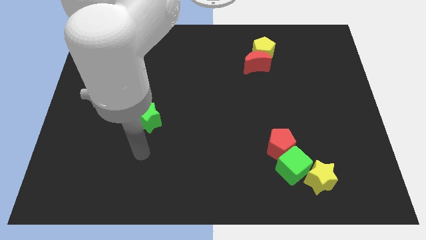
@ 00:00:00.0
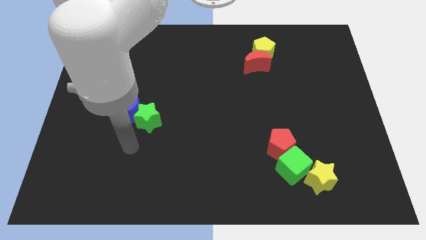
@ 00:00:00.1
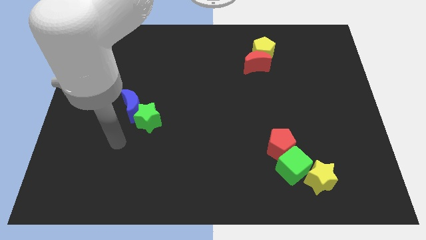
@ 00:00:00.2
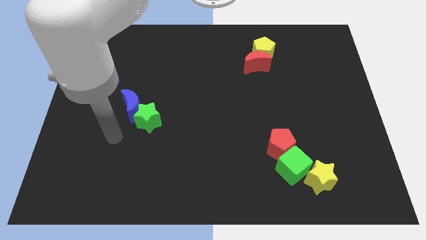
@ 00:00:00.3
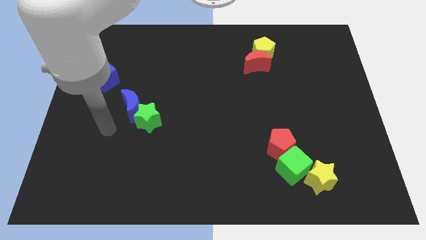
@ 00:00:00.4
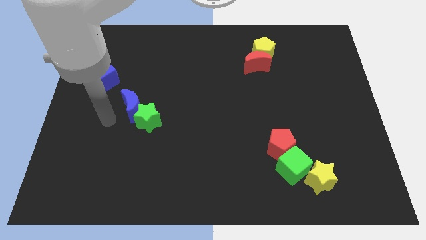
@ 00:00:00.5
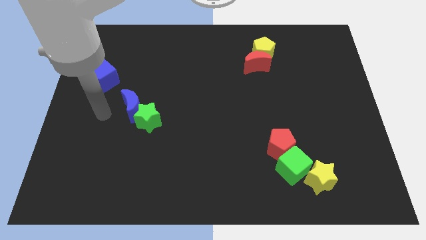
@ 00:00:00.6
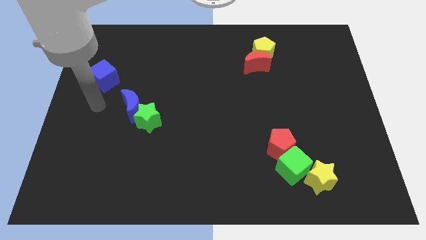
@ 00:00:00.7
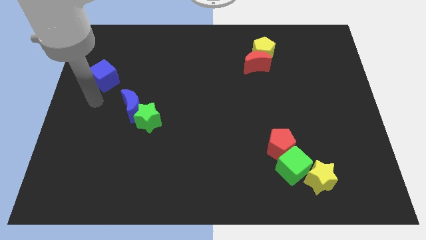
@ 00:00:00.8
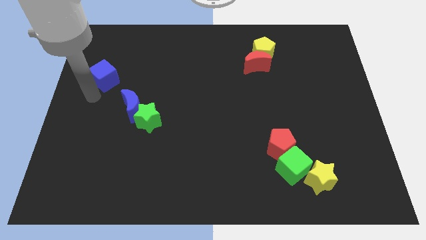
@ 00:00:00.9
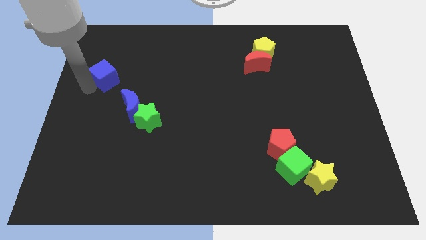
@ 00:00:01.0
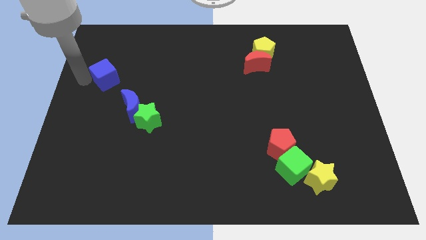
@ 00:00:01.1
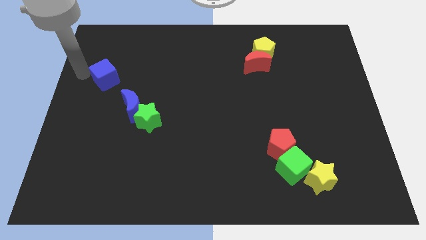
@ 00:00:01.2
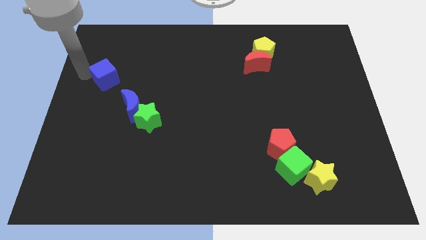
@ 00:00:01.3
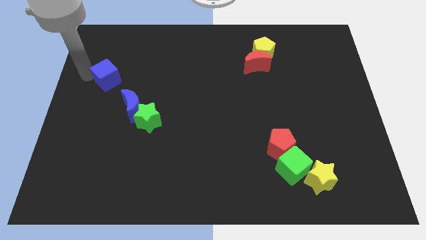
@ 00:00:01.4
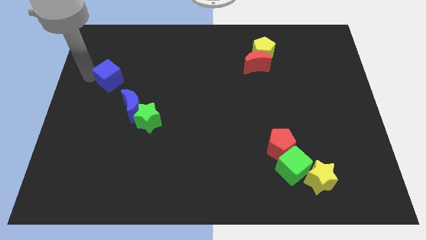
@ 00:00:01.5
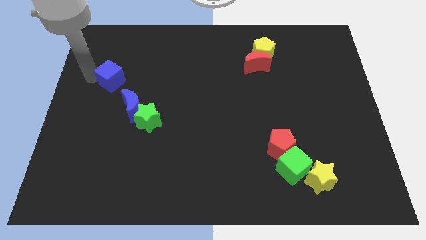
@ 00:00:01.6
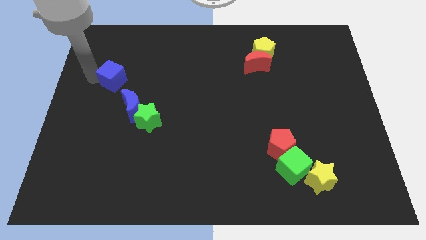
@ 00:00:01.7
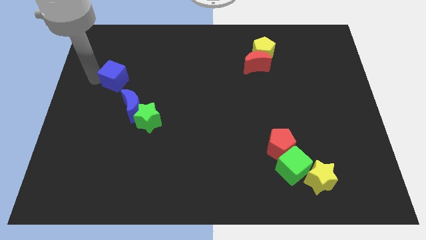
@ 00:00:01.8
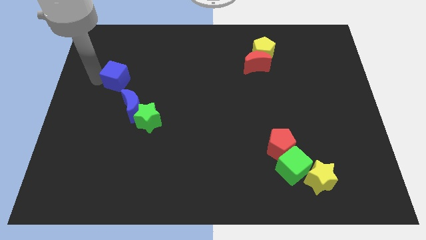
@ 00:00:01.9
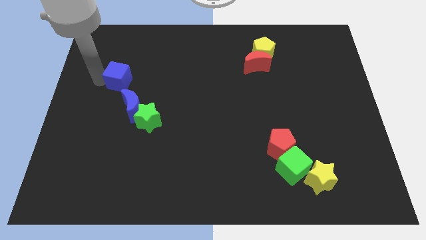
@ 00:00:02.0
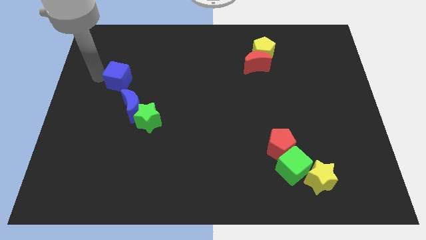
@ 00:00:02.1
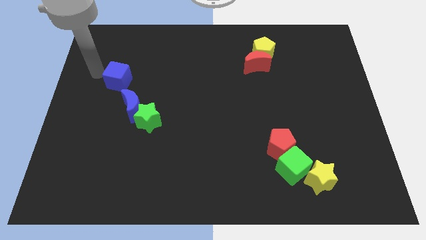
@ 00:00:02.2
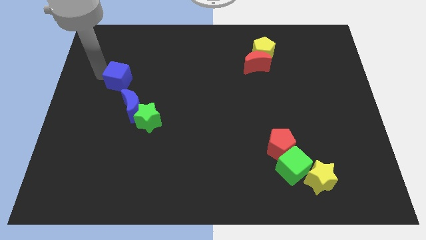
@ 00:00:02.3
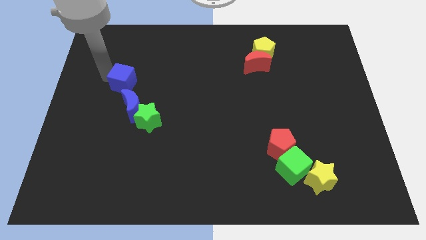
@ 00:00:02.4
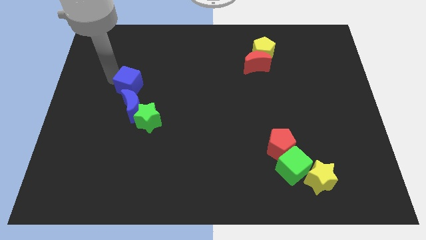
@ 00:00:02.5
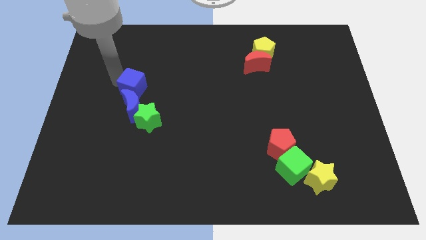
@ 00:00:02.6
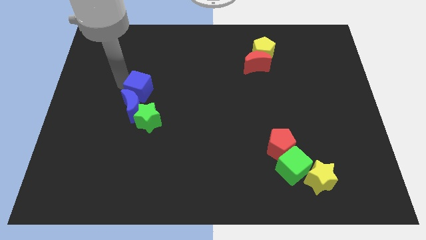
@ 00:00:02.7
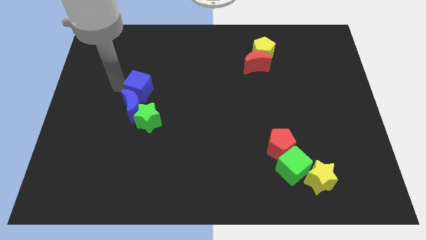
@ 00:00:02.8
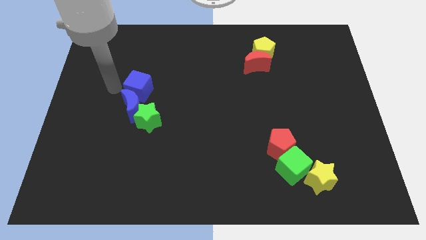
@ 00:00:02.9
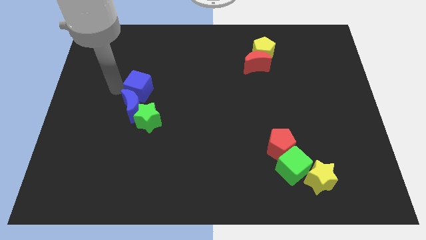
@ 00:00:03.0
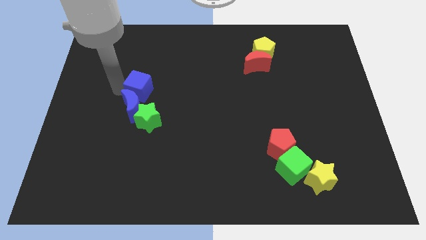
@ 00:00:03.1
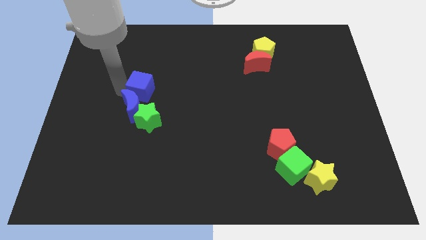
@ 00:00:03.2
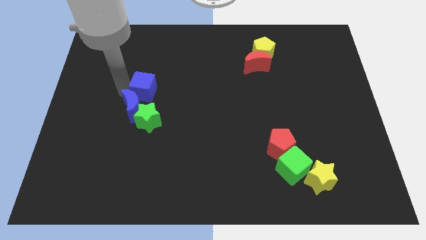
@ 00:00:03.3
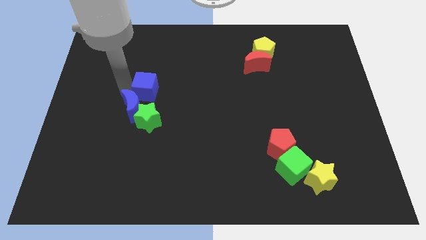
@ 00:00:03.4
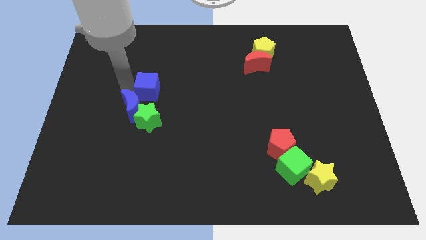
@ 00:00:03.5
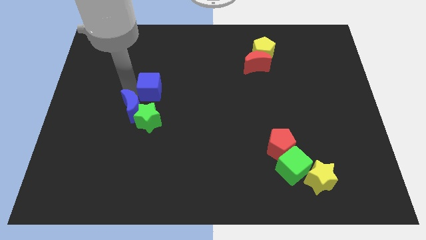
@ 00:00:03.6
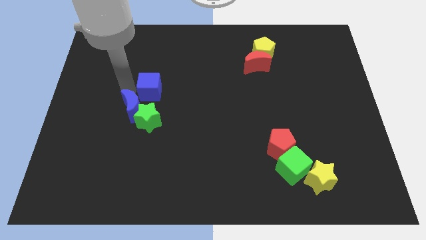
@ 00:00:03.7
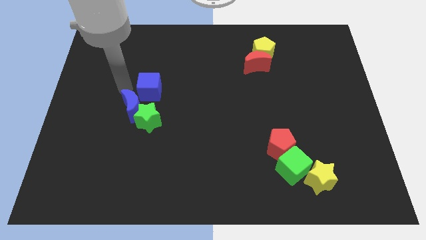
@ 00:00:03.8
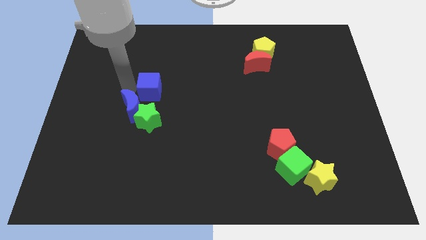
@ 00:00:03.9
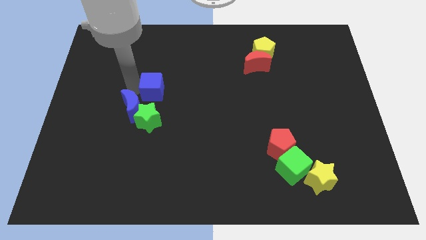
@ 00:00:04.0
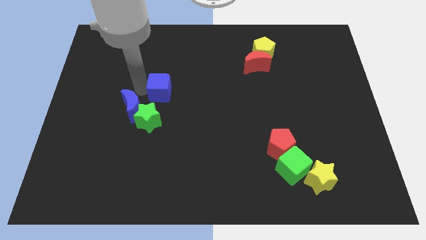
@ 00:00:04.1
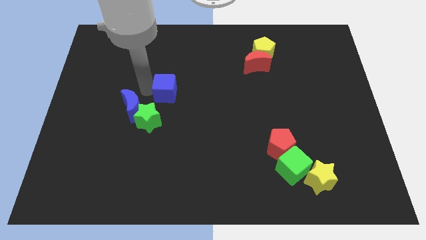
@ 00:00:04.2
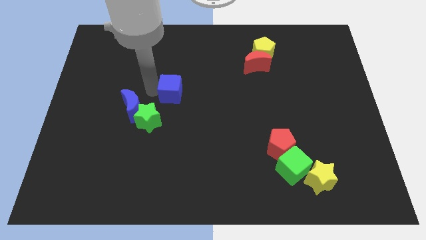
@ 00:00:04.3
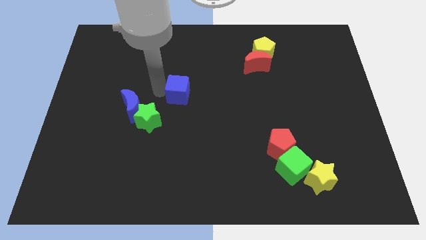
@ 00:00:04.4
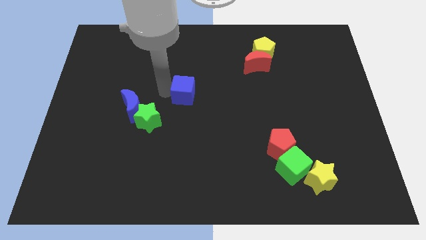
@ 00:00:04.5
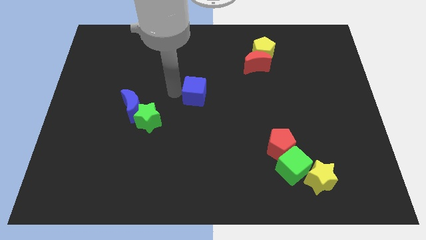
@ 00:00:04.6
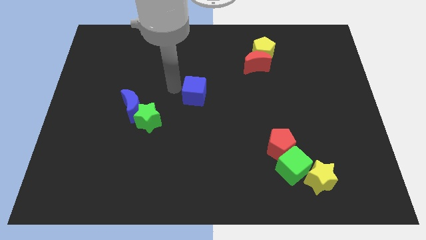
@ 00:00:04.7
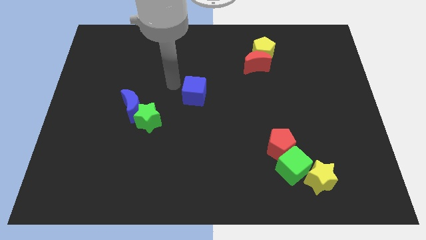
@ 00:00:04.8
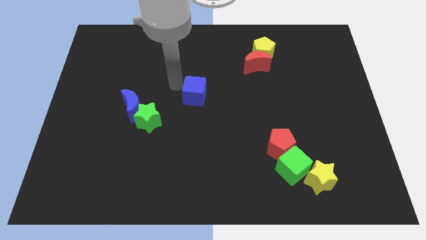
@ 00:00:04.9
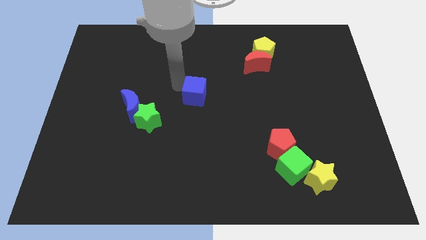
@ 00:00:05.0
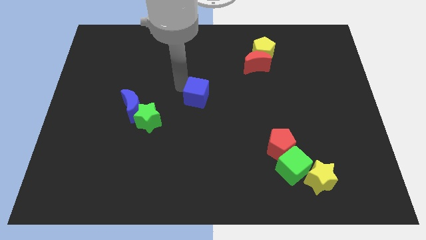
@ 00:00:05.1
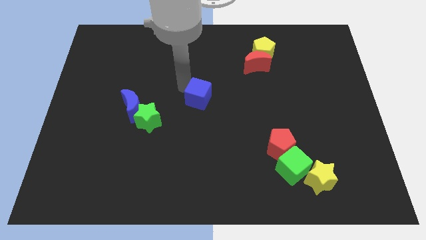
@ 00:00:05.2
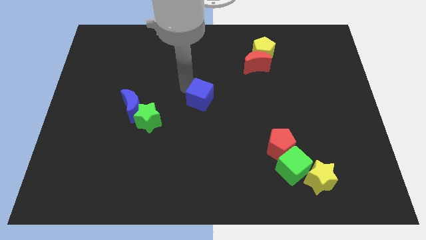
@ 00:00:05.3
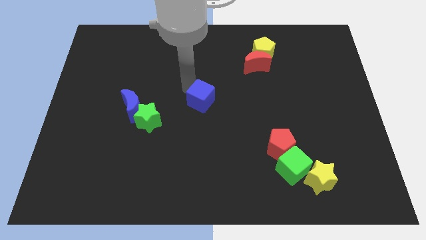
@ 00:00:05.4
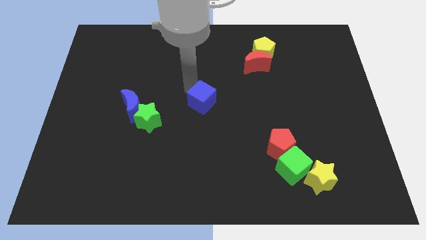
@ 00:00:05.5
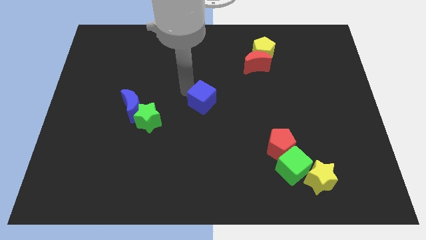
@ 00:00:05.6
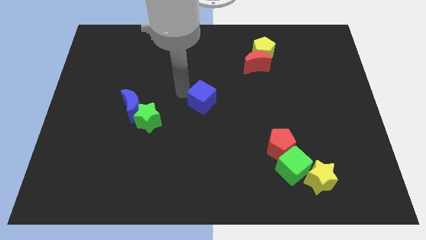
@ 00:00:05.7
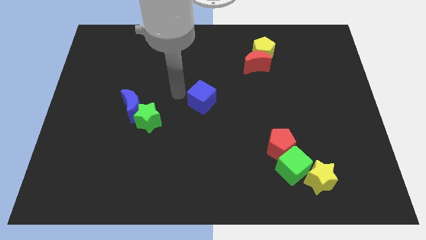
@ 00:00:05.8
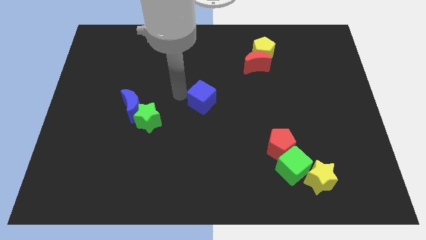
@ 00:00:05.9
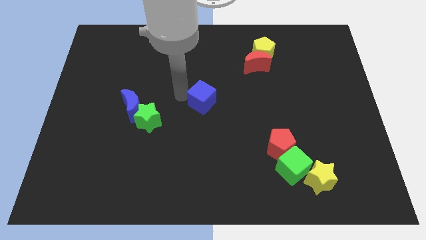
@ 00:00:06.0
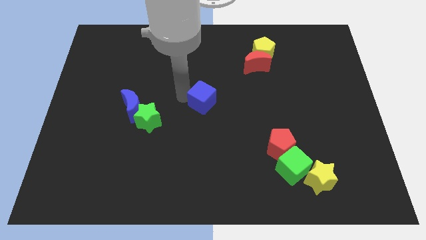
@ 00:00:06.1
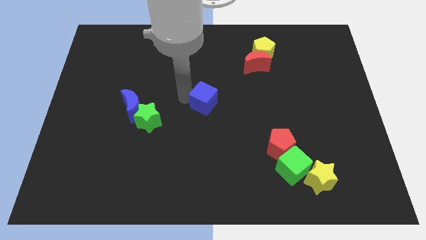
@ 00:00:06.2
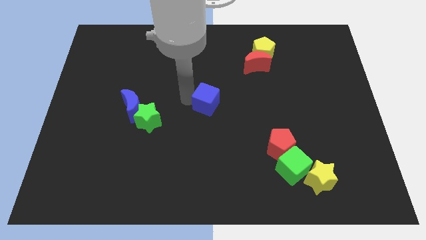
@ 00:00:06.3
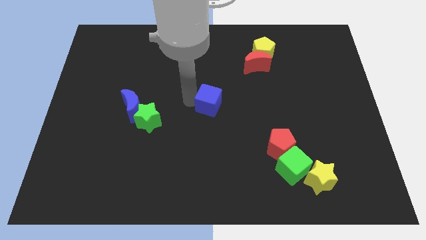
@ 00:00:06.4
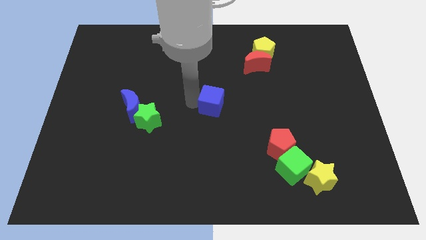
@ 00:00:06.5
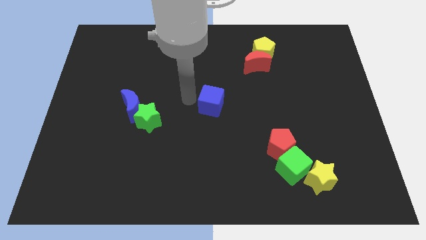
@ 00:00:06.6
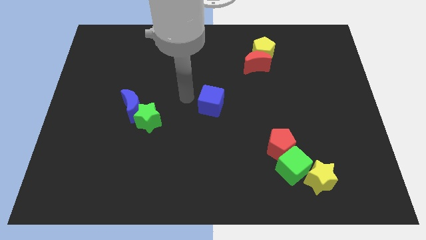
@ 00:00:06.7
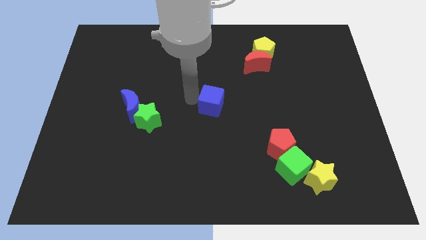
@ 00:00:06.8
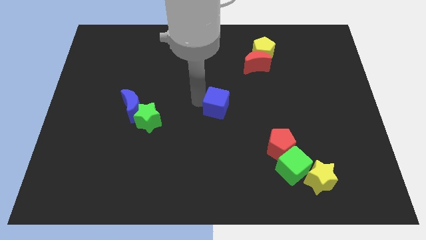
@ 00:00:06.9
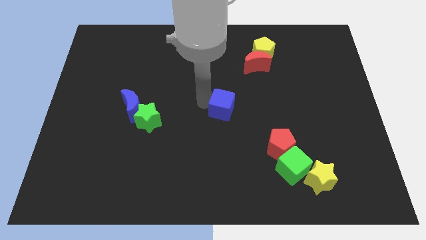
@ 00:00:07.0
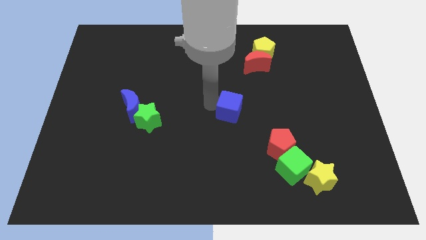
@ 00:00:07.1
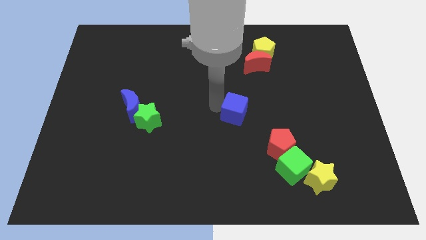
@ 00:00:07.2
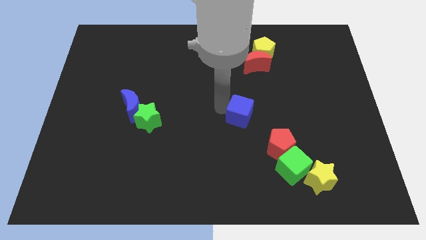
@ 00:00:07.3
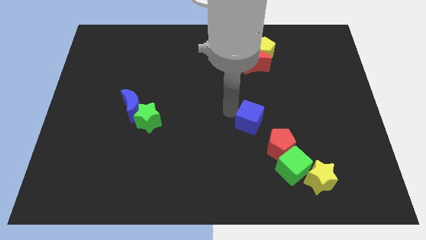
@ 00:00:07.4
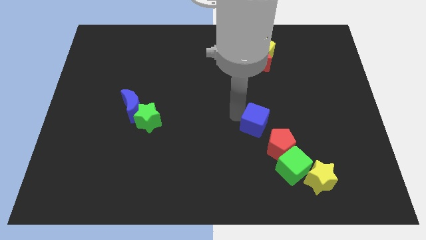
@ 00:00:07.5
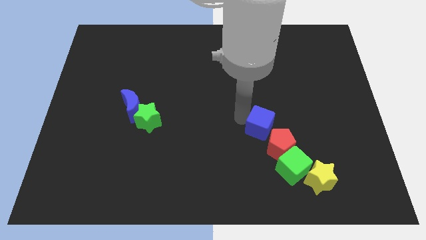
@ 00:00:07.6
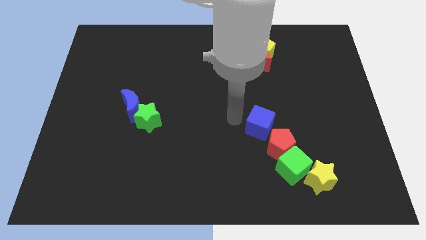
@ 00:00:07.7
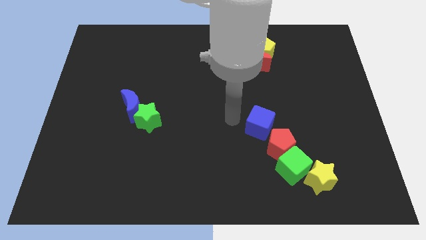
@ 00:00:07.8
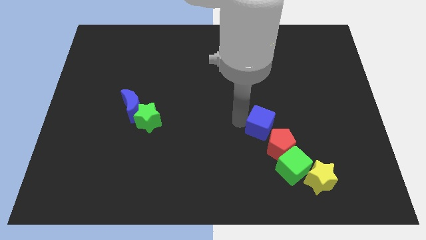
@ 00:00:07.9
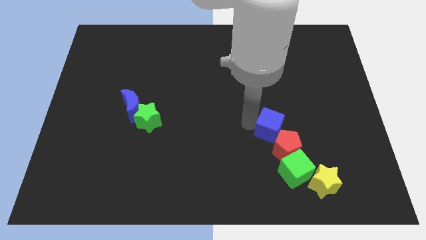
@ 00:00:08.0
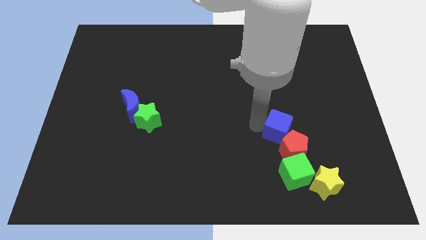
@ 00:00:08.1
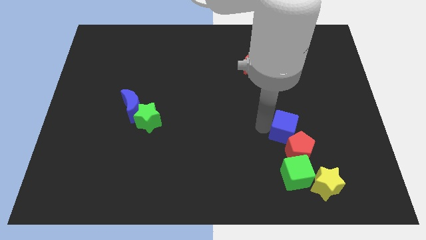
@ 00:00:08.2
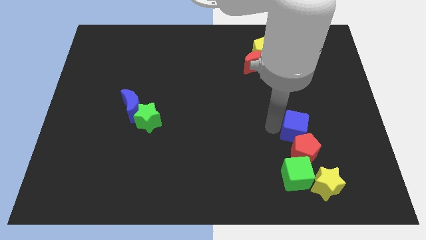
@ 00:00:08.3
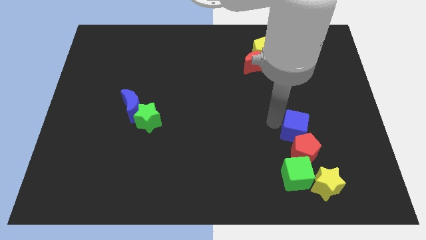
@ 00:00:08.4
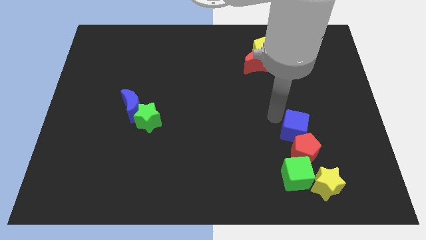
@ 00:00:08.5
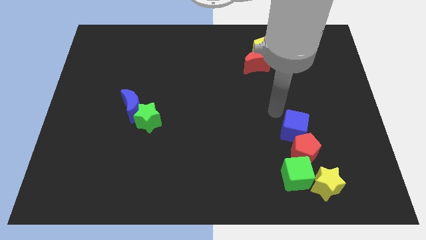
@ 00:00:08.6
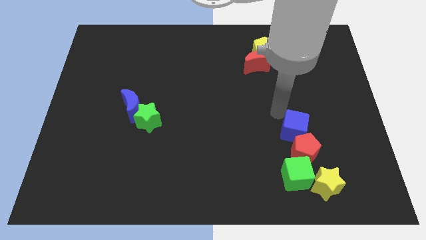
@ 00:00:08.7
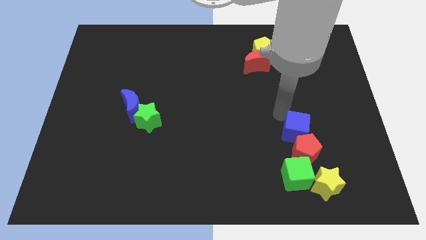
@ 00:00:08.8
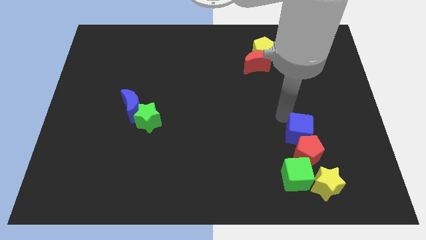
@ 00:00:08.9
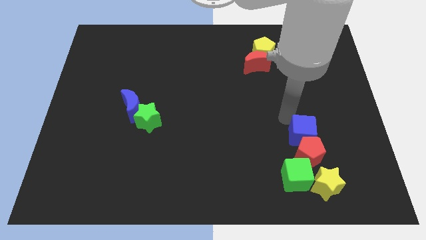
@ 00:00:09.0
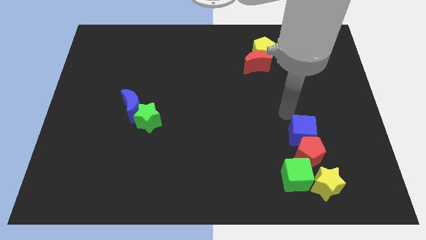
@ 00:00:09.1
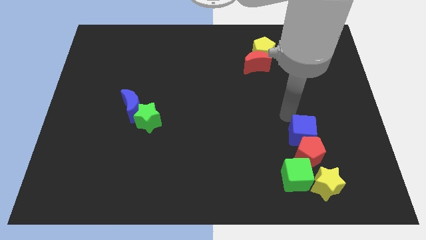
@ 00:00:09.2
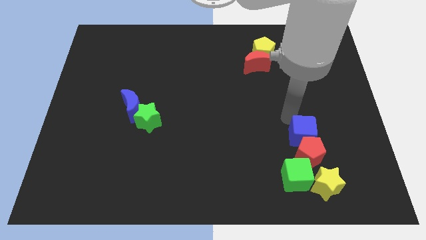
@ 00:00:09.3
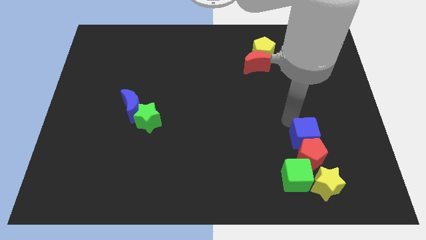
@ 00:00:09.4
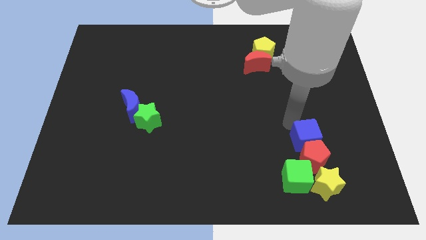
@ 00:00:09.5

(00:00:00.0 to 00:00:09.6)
move the blue cube to the top right of the green cube
